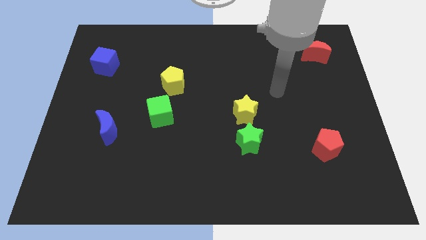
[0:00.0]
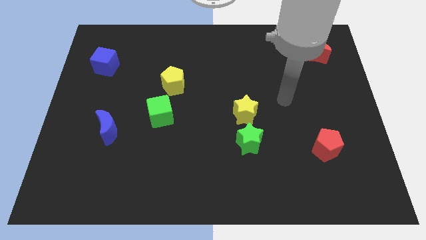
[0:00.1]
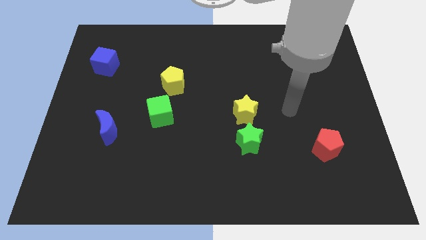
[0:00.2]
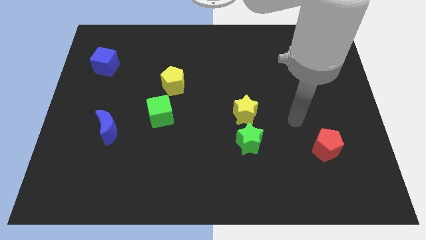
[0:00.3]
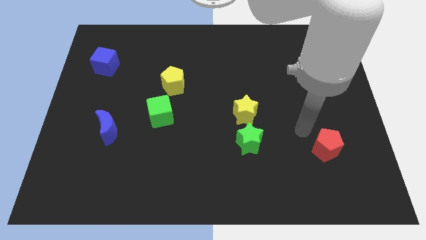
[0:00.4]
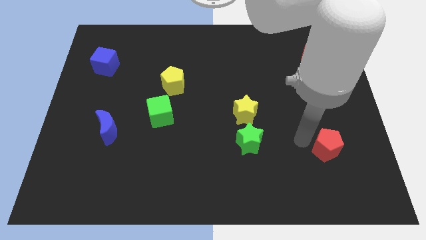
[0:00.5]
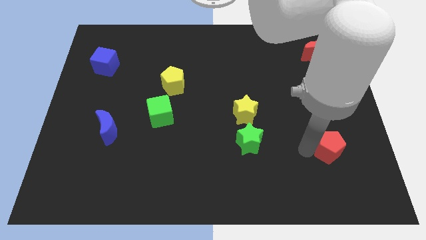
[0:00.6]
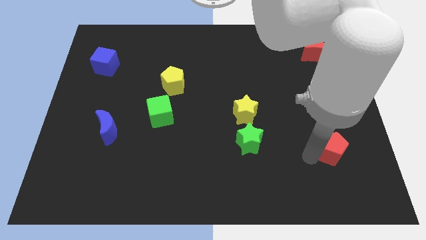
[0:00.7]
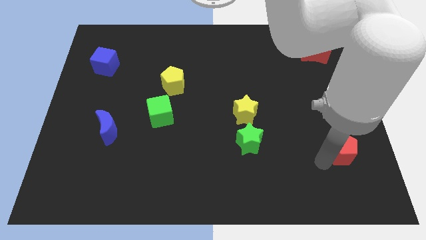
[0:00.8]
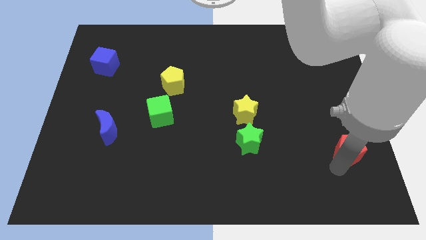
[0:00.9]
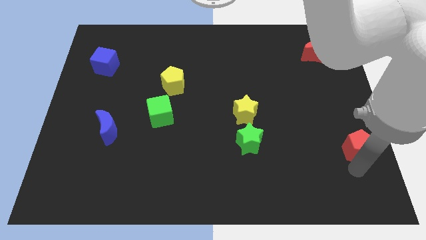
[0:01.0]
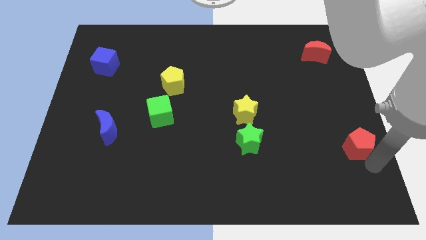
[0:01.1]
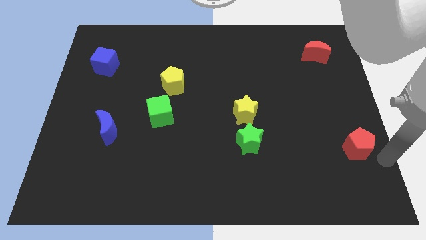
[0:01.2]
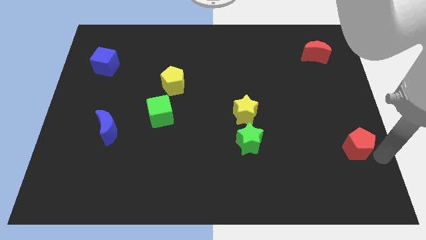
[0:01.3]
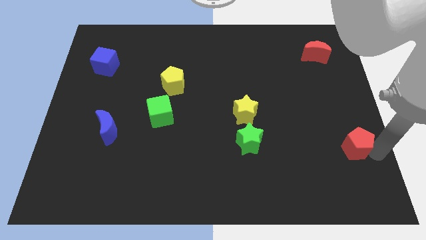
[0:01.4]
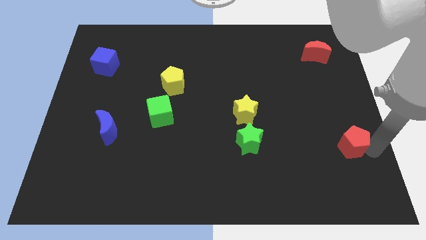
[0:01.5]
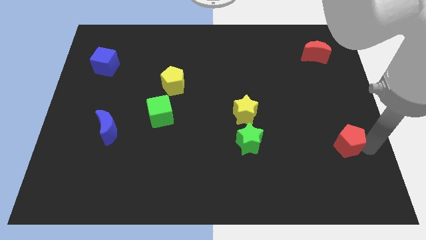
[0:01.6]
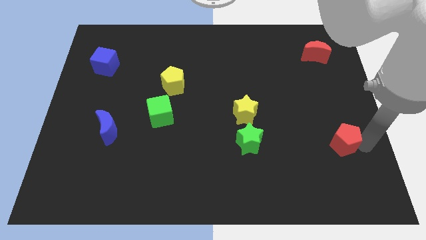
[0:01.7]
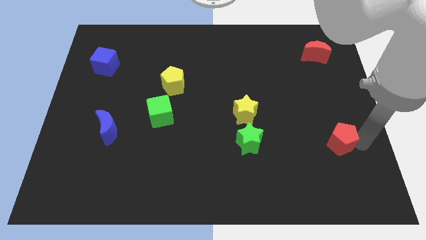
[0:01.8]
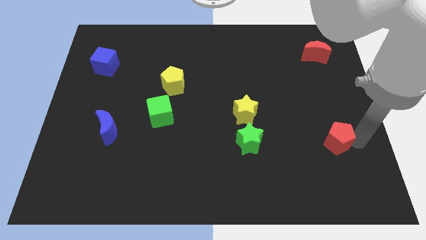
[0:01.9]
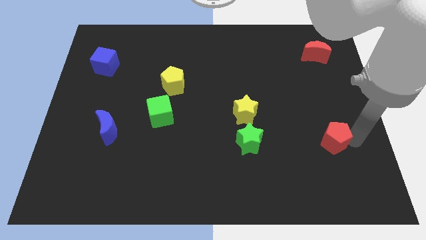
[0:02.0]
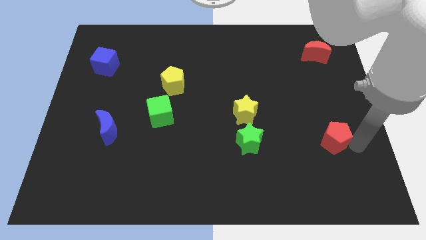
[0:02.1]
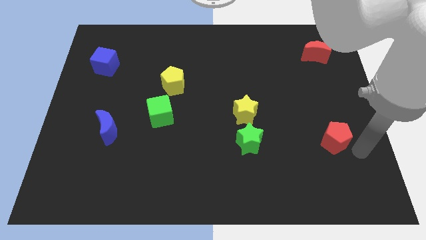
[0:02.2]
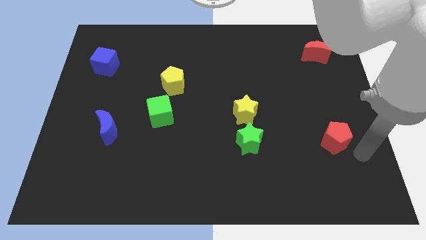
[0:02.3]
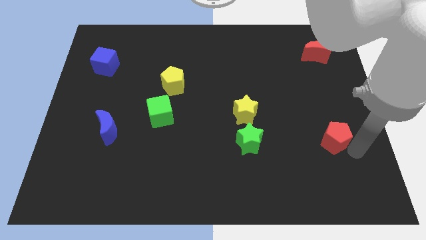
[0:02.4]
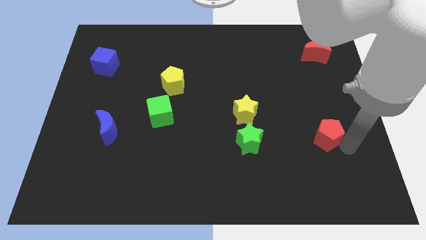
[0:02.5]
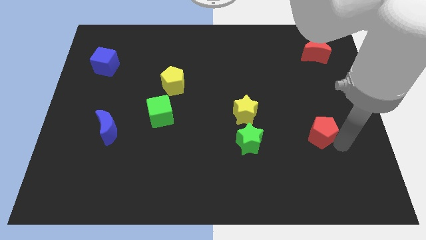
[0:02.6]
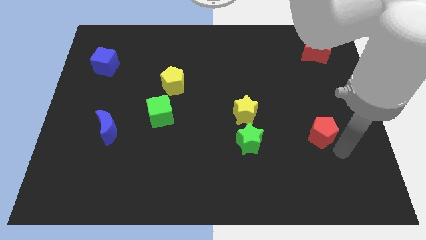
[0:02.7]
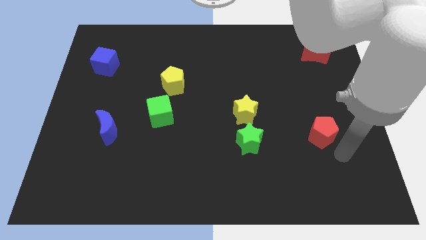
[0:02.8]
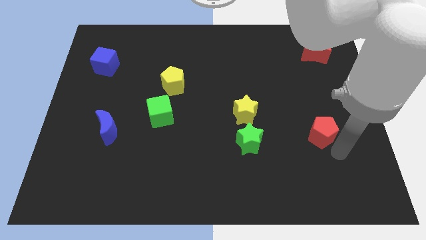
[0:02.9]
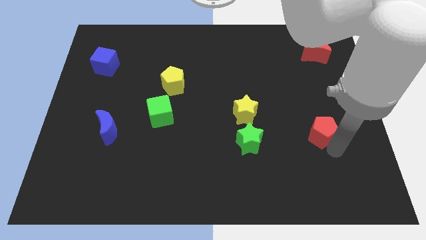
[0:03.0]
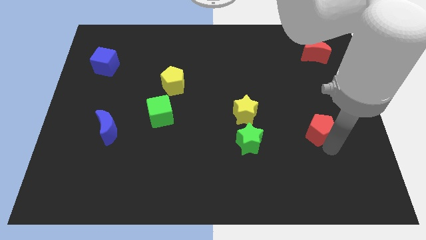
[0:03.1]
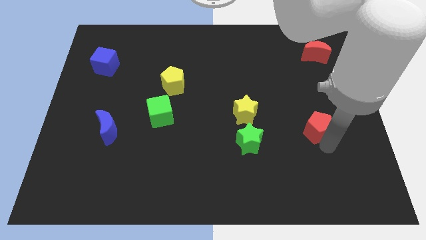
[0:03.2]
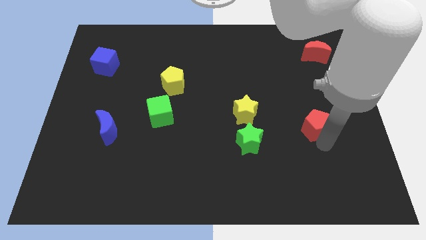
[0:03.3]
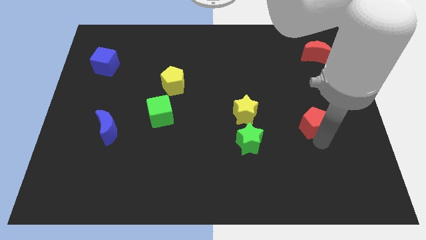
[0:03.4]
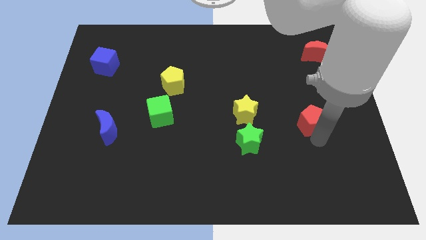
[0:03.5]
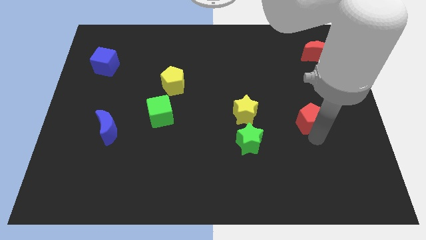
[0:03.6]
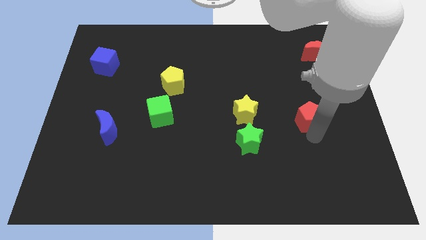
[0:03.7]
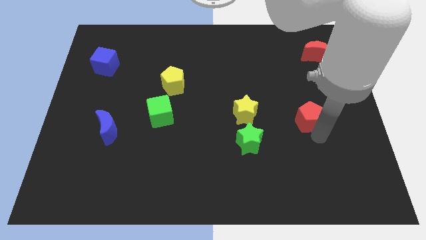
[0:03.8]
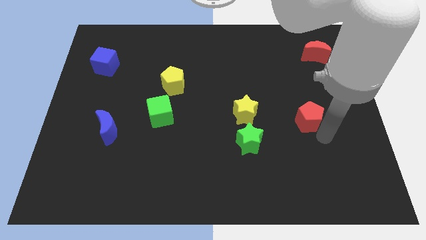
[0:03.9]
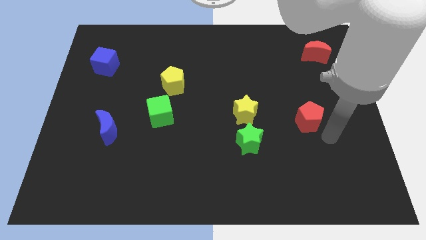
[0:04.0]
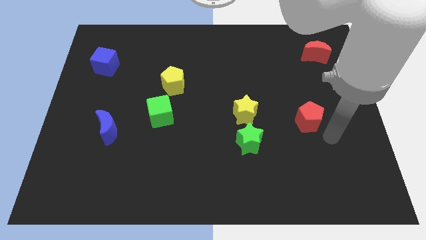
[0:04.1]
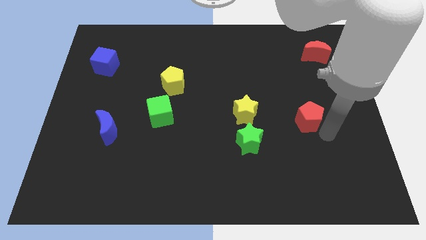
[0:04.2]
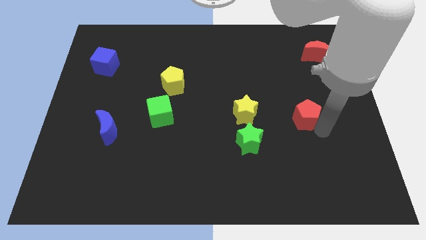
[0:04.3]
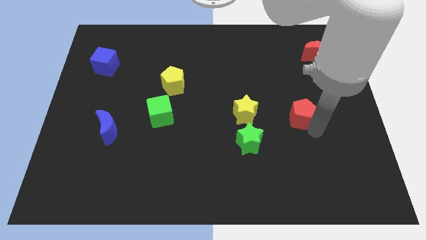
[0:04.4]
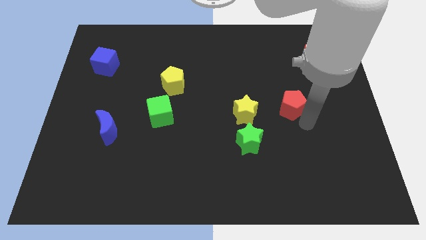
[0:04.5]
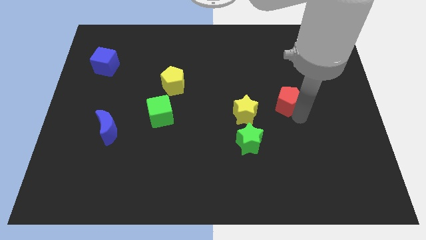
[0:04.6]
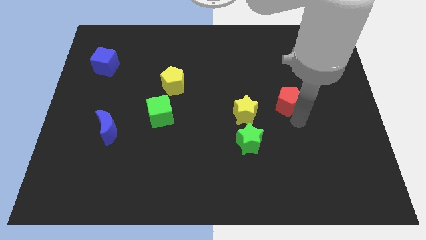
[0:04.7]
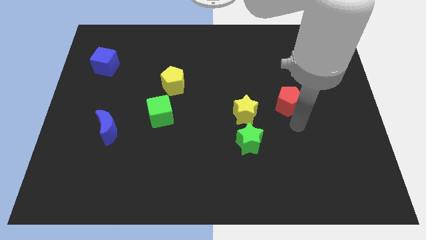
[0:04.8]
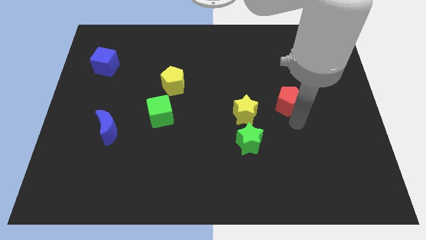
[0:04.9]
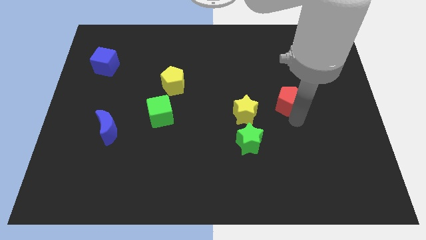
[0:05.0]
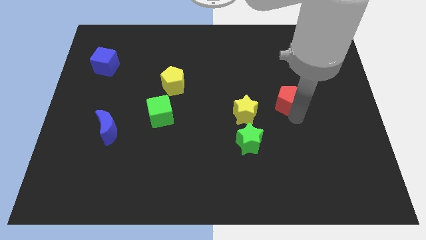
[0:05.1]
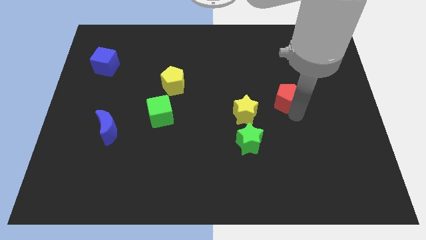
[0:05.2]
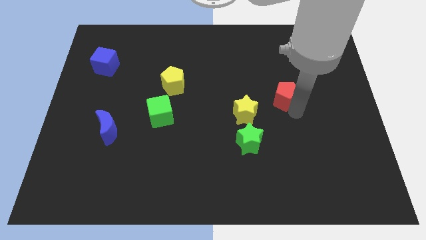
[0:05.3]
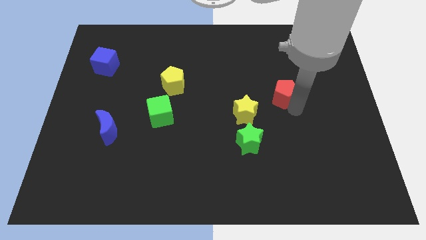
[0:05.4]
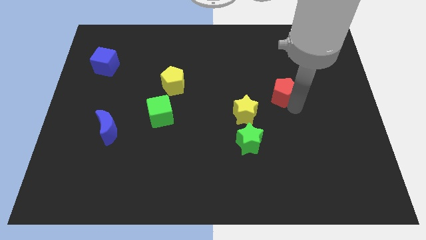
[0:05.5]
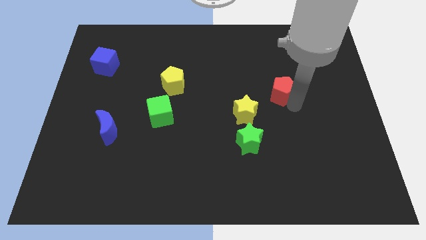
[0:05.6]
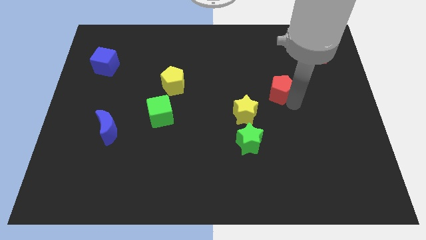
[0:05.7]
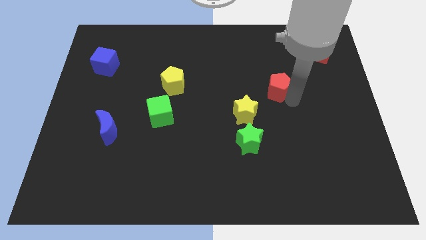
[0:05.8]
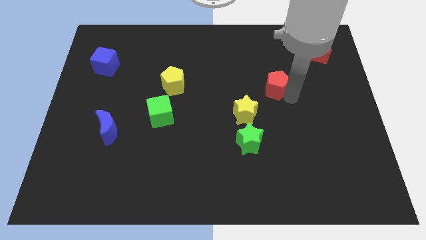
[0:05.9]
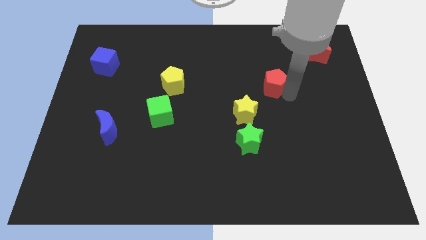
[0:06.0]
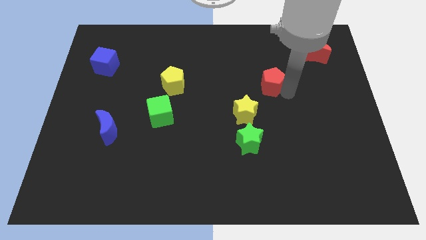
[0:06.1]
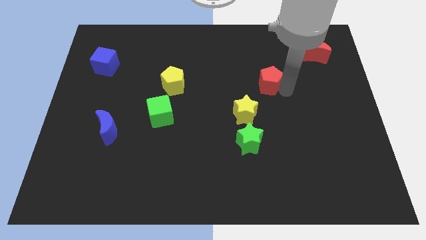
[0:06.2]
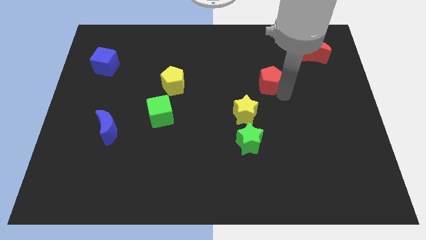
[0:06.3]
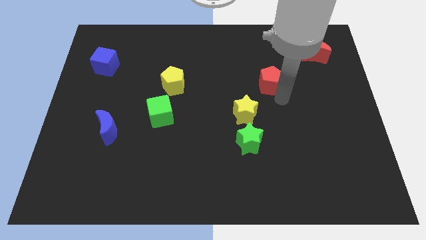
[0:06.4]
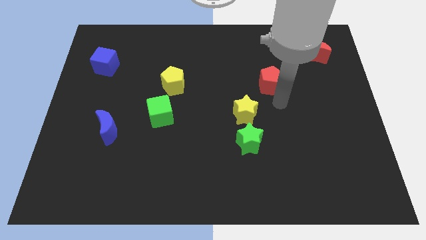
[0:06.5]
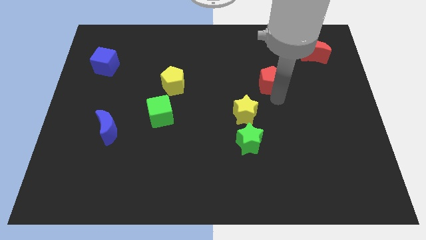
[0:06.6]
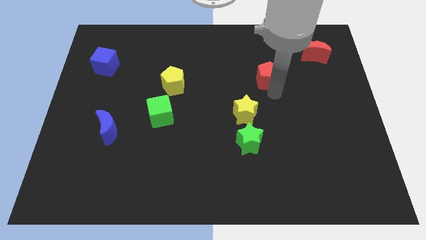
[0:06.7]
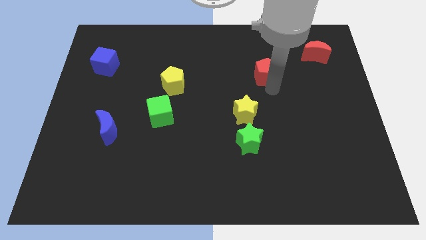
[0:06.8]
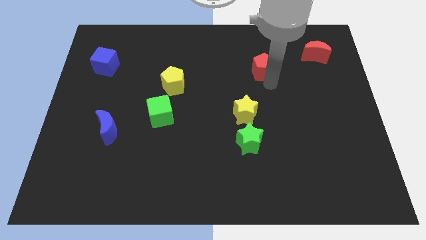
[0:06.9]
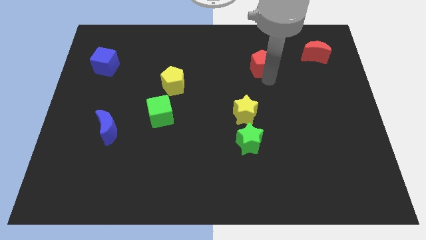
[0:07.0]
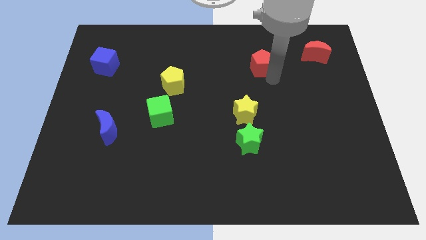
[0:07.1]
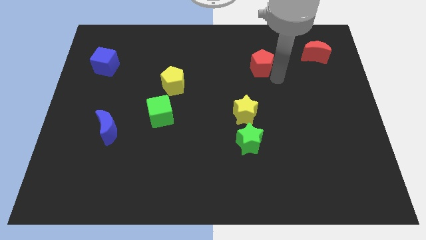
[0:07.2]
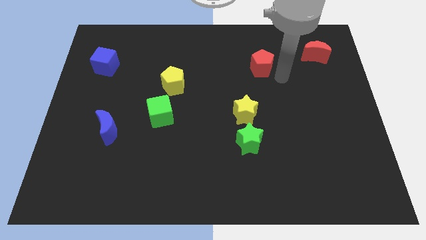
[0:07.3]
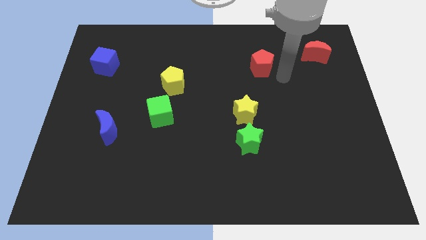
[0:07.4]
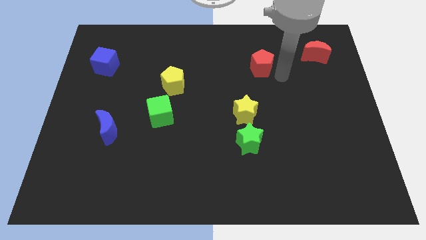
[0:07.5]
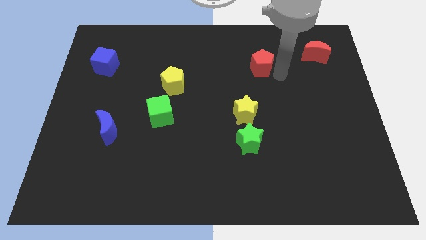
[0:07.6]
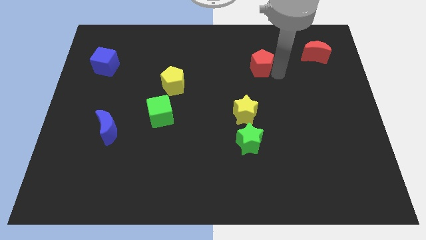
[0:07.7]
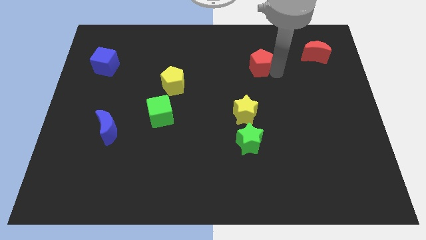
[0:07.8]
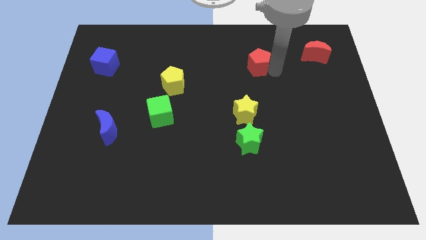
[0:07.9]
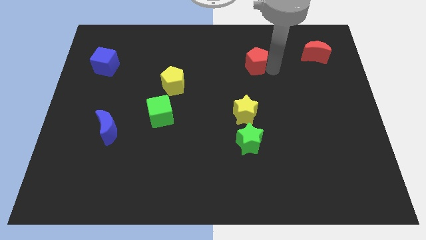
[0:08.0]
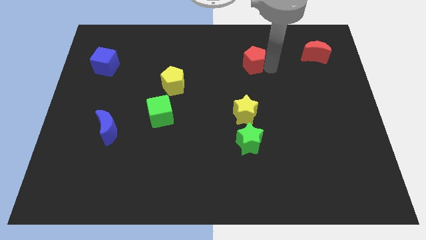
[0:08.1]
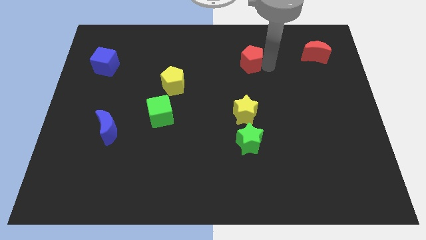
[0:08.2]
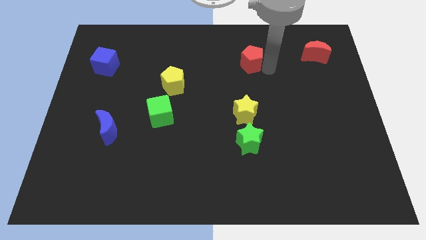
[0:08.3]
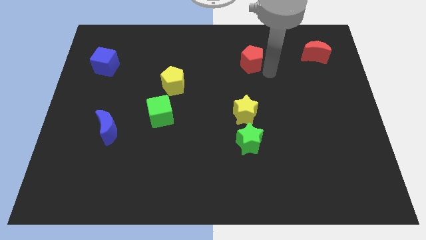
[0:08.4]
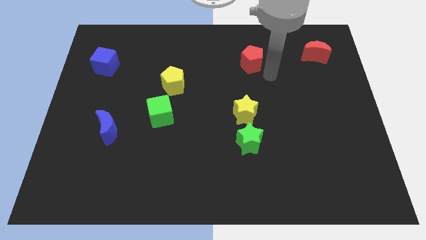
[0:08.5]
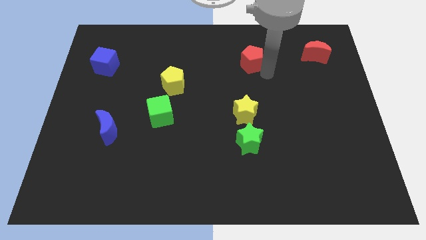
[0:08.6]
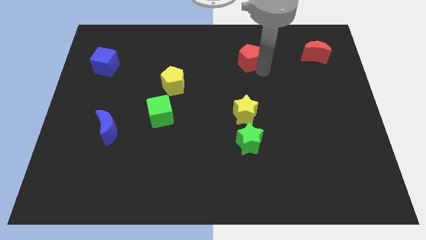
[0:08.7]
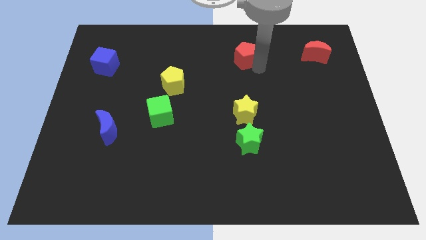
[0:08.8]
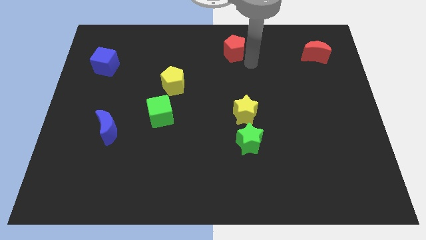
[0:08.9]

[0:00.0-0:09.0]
slide the red pentagon to the top
